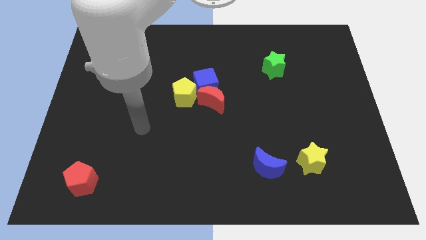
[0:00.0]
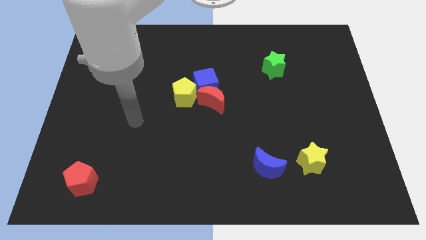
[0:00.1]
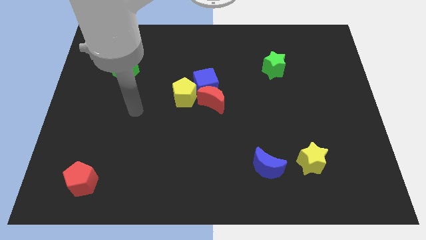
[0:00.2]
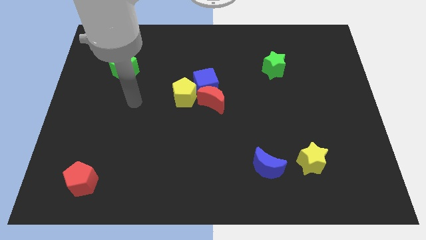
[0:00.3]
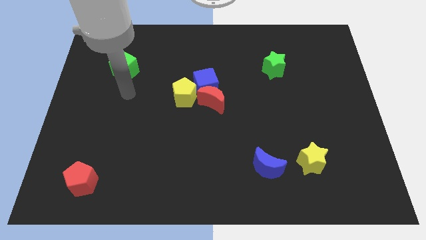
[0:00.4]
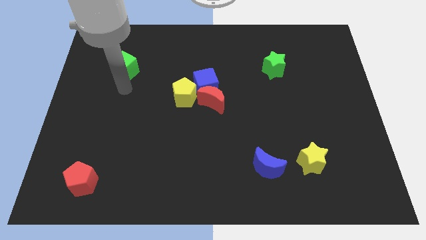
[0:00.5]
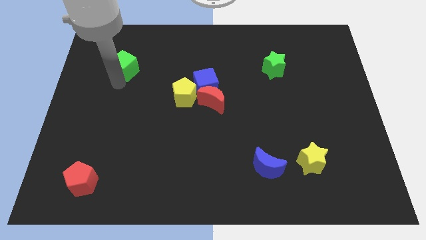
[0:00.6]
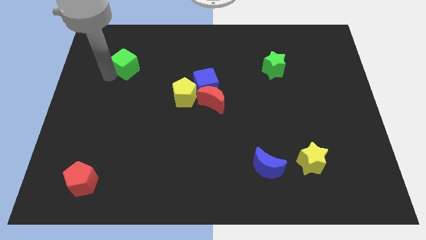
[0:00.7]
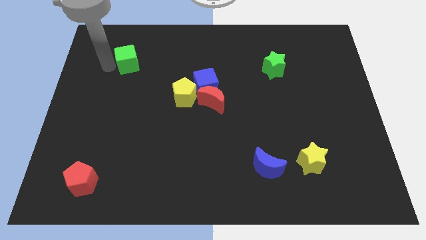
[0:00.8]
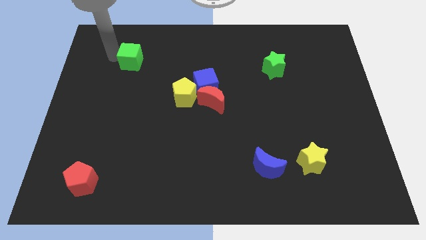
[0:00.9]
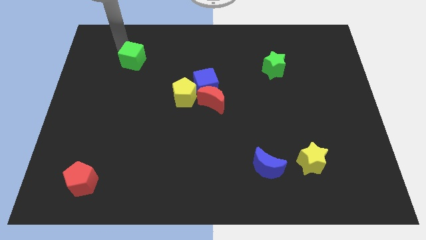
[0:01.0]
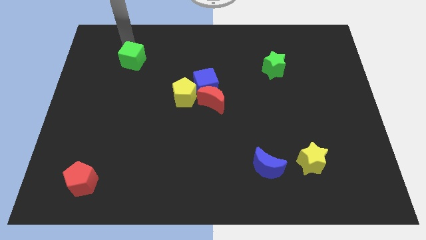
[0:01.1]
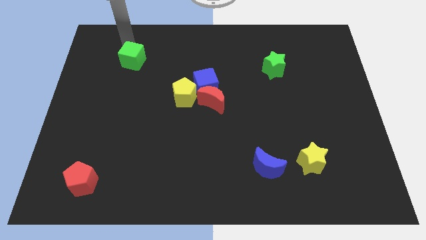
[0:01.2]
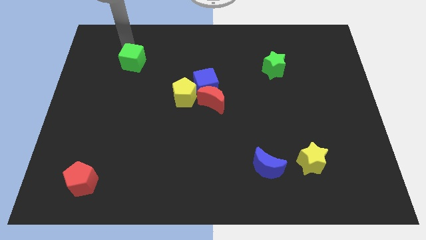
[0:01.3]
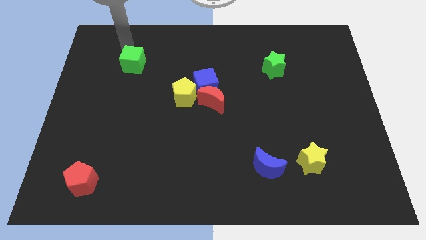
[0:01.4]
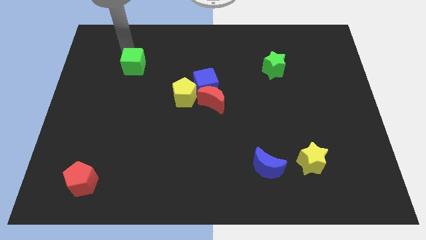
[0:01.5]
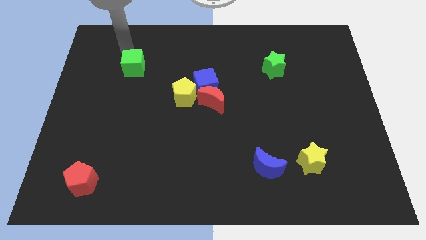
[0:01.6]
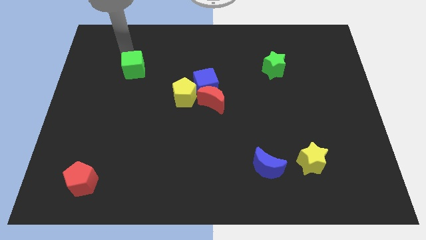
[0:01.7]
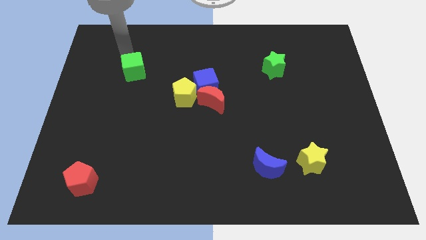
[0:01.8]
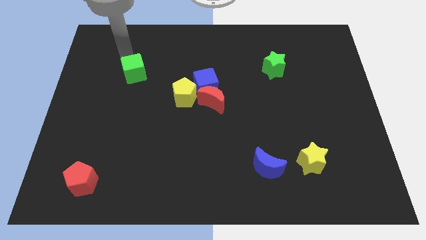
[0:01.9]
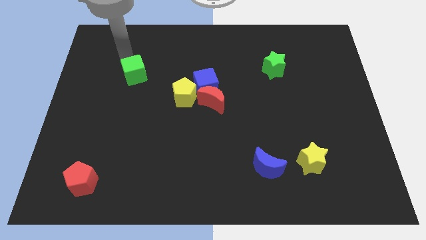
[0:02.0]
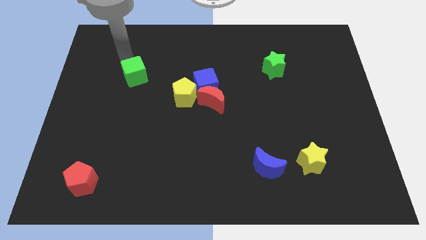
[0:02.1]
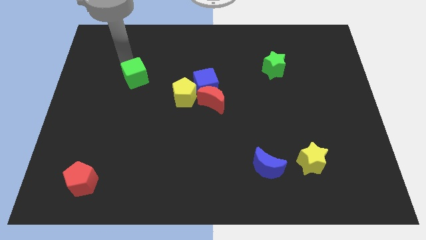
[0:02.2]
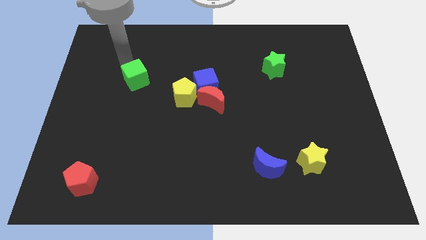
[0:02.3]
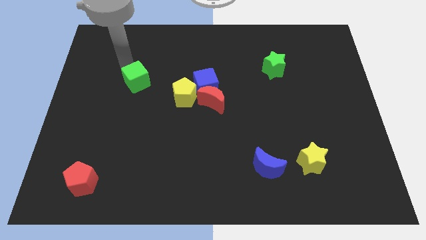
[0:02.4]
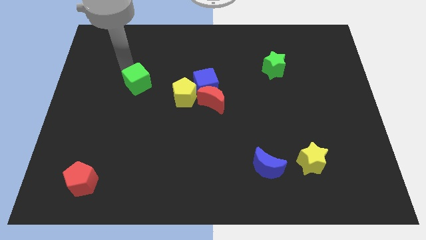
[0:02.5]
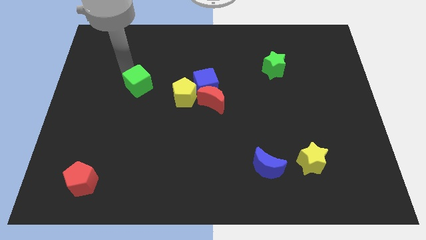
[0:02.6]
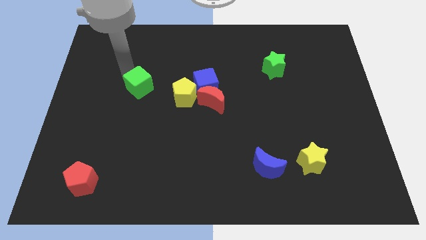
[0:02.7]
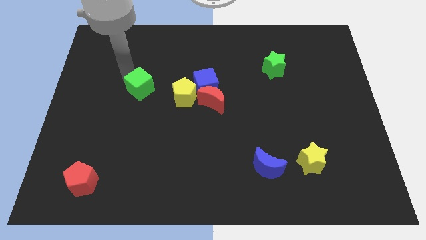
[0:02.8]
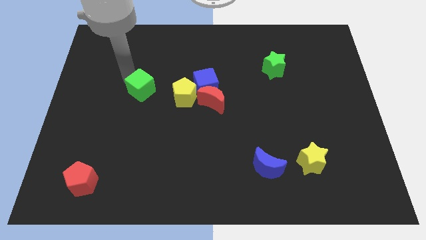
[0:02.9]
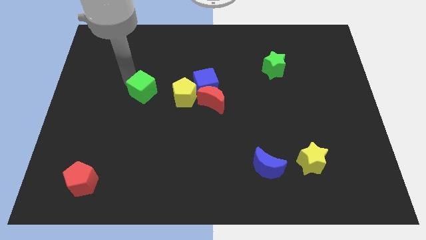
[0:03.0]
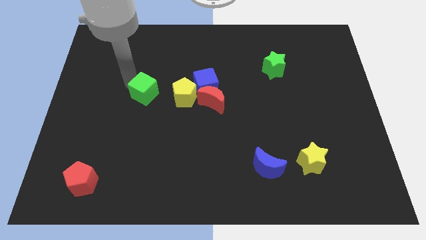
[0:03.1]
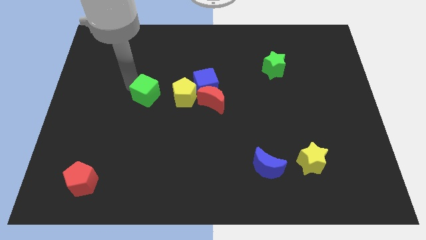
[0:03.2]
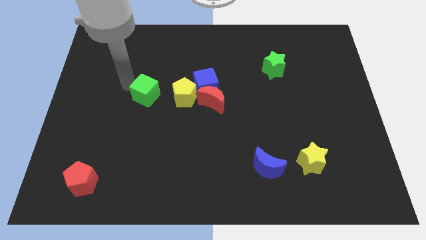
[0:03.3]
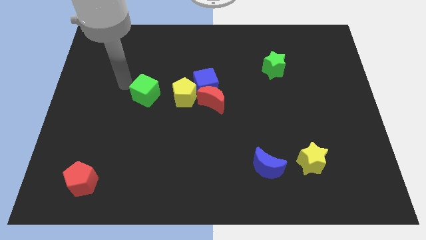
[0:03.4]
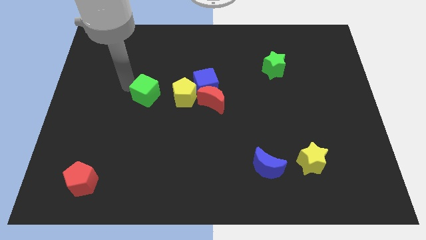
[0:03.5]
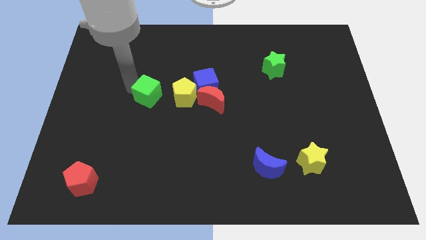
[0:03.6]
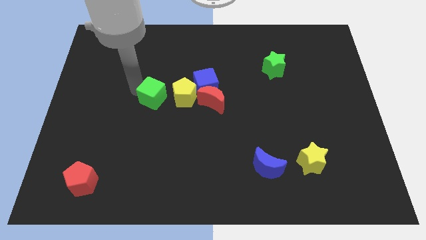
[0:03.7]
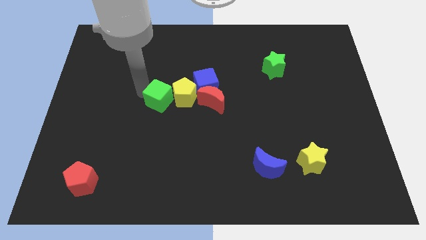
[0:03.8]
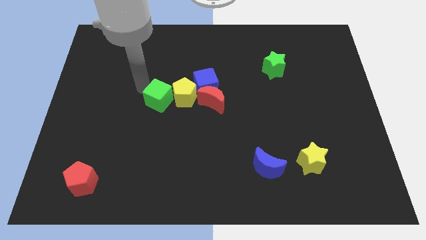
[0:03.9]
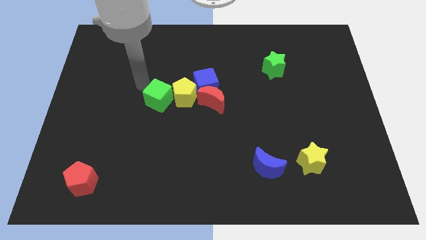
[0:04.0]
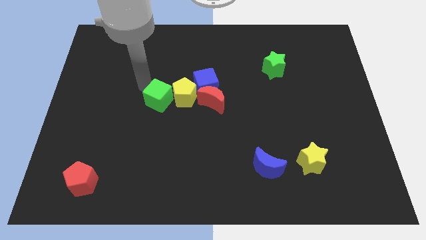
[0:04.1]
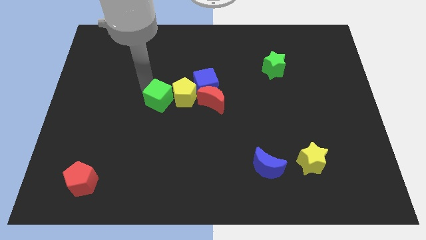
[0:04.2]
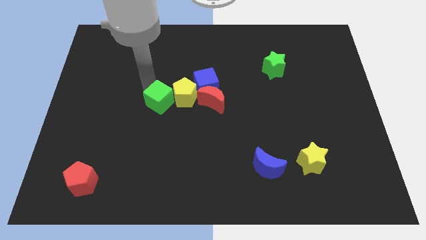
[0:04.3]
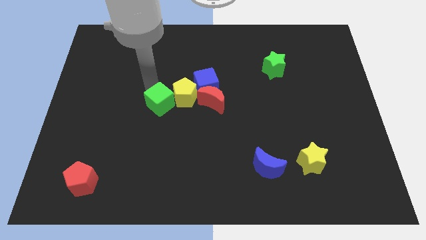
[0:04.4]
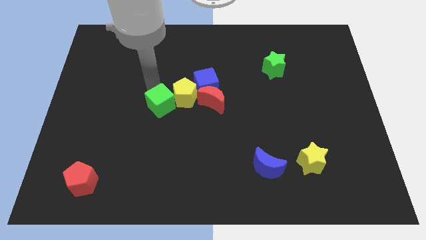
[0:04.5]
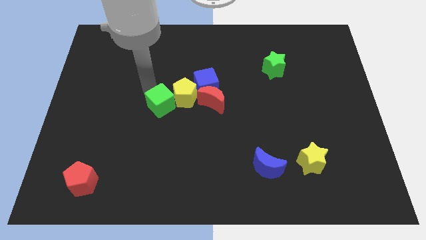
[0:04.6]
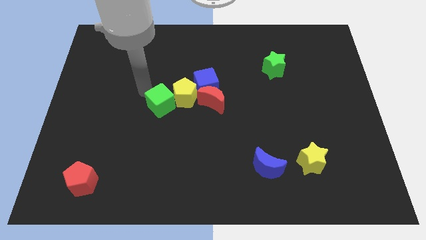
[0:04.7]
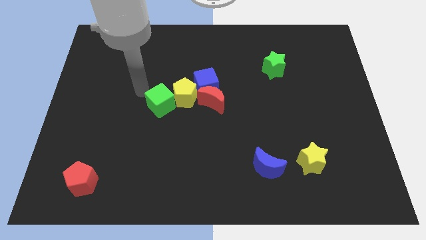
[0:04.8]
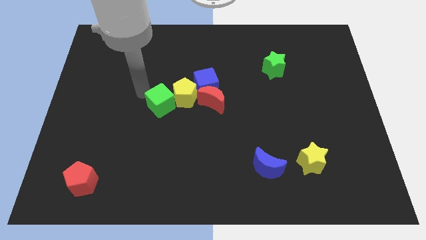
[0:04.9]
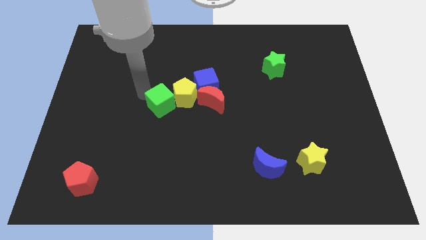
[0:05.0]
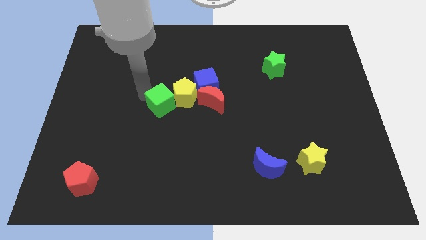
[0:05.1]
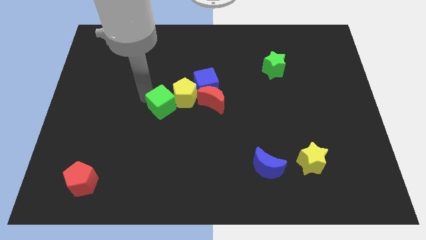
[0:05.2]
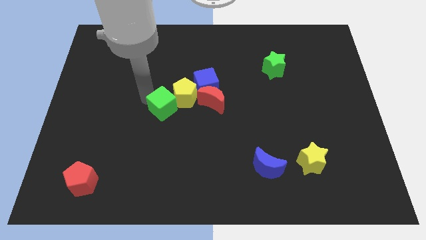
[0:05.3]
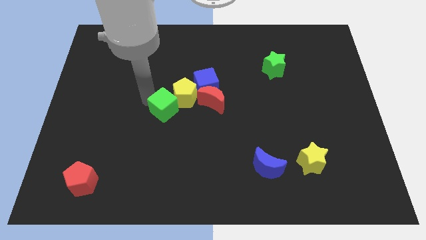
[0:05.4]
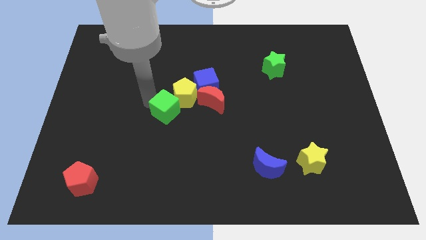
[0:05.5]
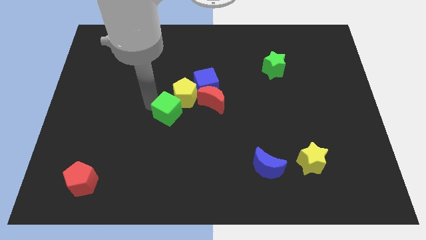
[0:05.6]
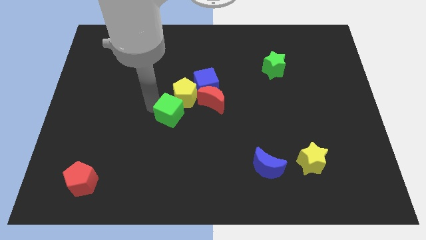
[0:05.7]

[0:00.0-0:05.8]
move the green cube to the bottom left of the red moon

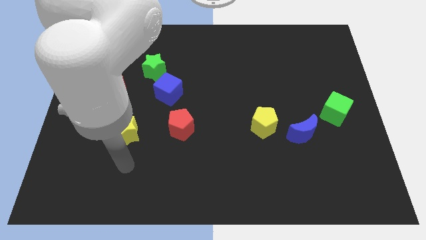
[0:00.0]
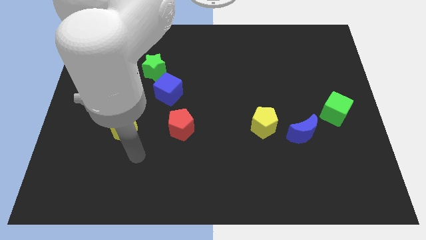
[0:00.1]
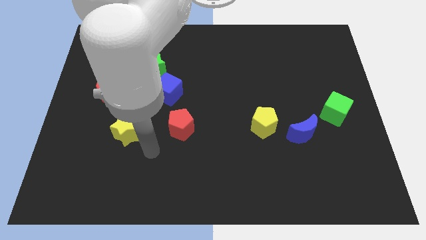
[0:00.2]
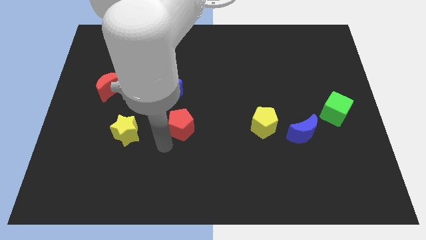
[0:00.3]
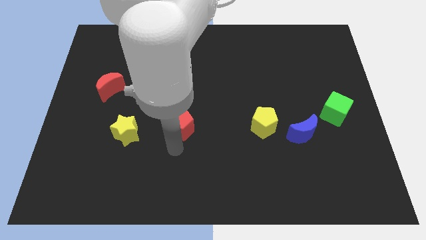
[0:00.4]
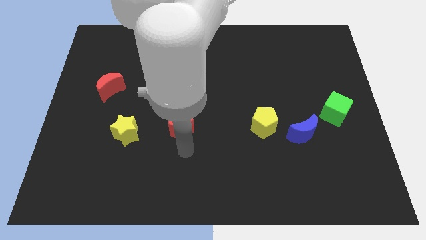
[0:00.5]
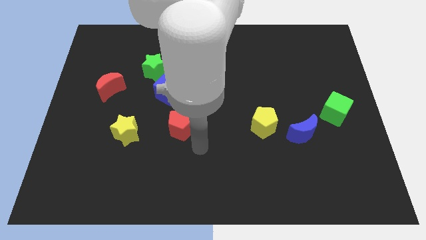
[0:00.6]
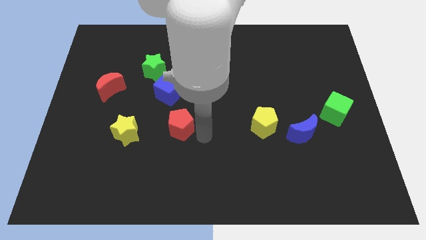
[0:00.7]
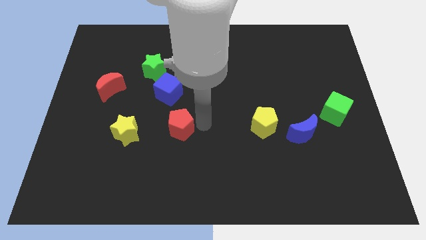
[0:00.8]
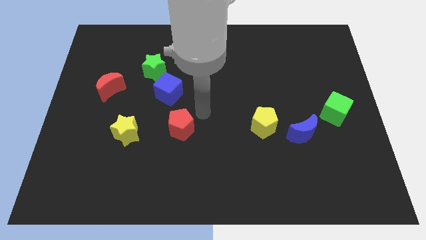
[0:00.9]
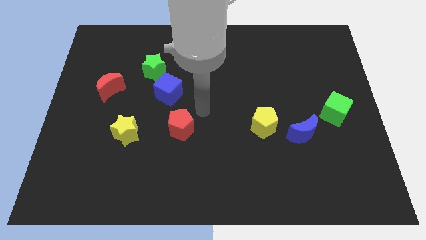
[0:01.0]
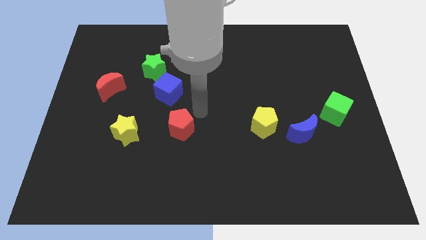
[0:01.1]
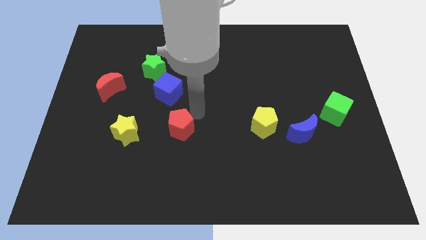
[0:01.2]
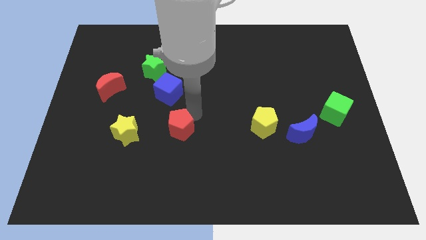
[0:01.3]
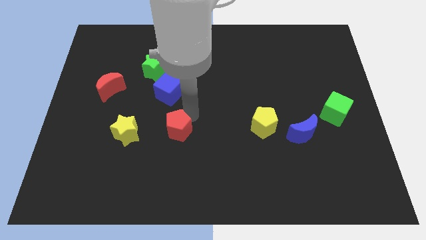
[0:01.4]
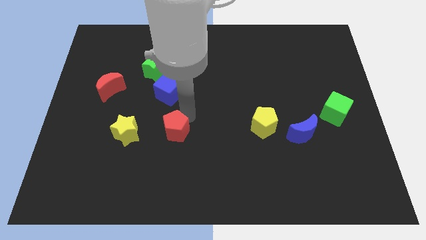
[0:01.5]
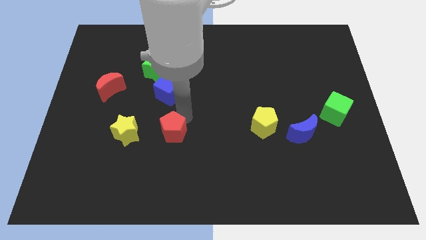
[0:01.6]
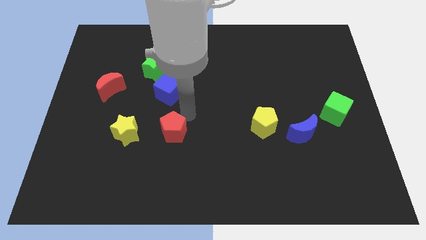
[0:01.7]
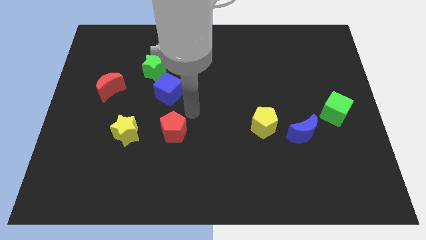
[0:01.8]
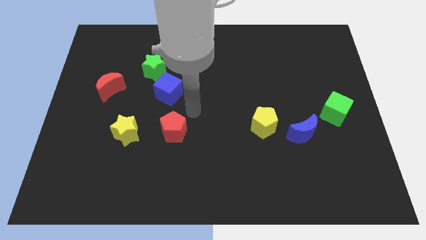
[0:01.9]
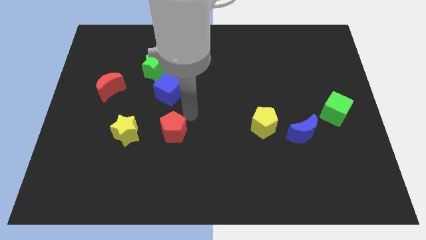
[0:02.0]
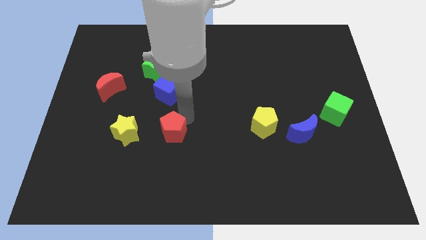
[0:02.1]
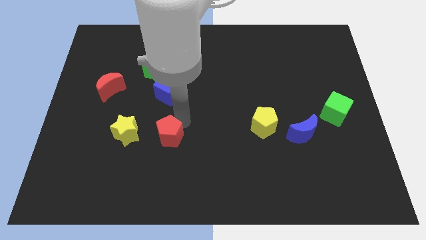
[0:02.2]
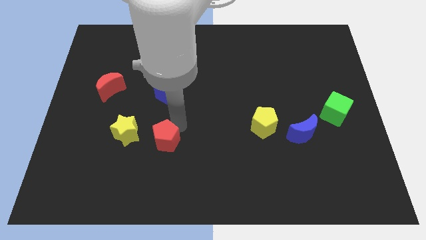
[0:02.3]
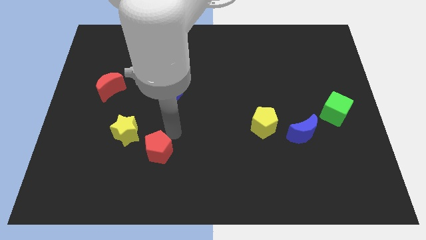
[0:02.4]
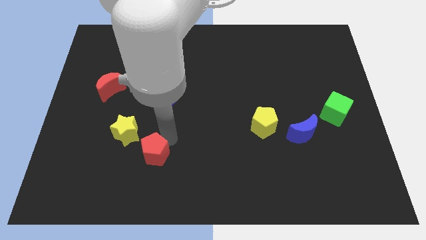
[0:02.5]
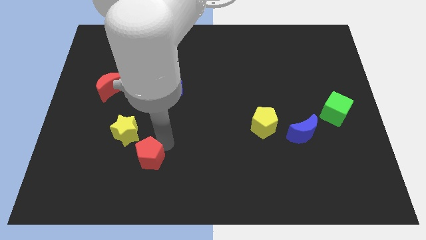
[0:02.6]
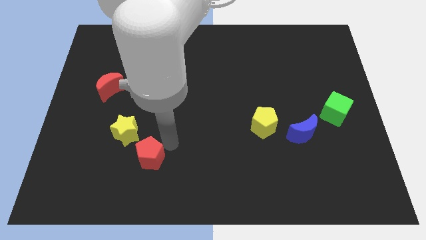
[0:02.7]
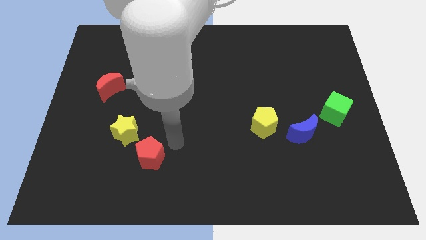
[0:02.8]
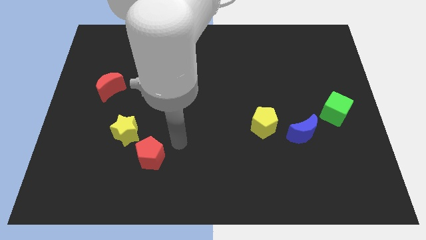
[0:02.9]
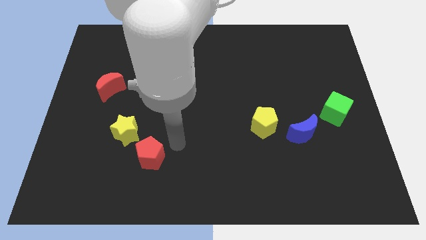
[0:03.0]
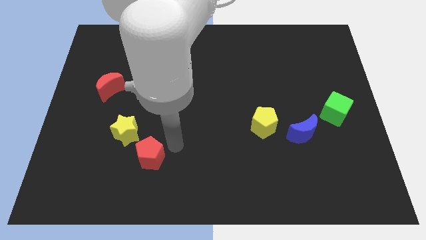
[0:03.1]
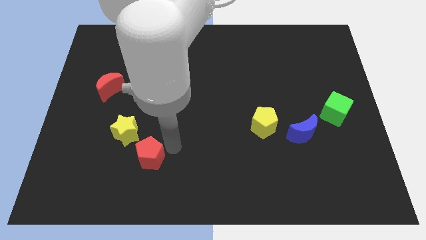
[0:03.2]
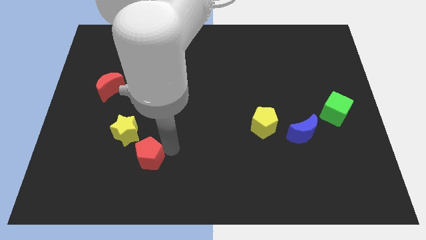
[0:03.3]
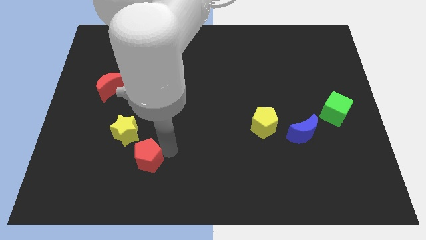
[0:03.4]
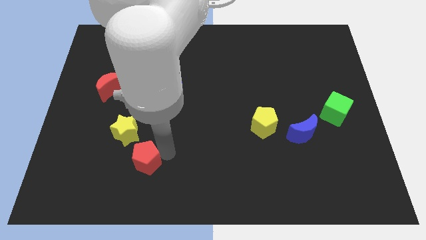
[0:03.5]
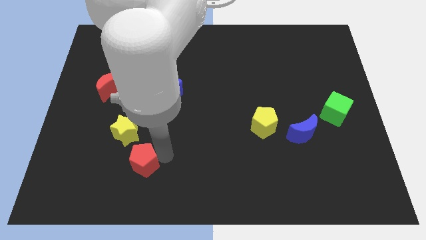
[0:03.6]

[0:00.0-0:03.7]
put the red pentagon below the yellow star
